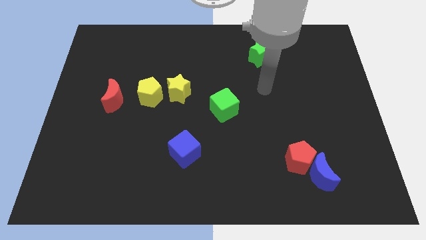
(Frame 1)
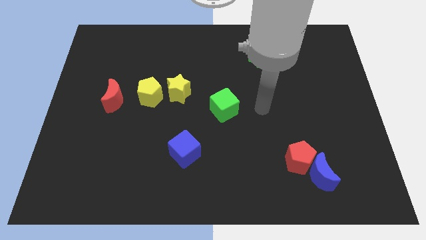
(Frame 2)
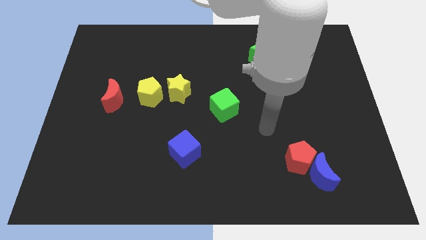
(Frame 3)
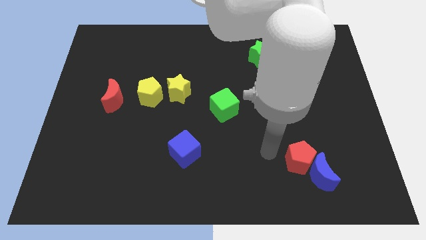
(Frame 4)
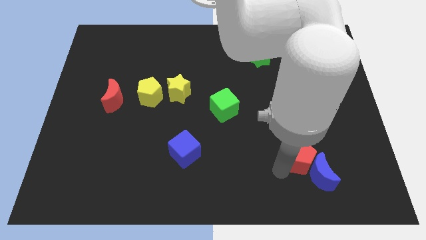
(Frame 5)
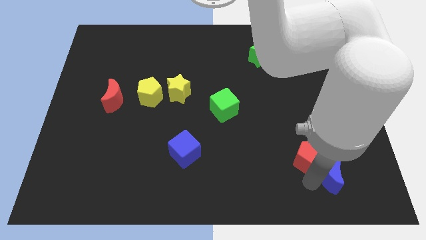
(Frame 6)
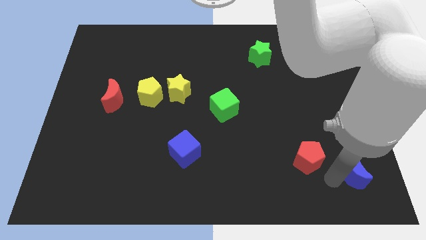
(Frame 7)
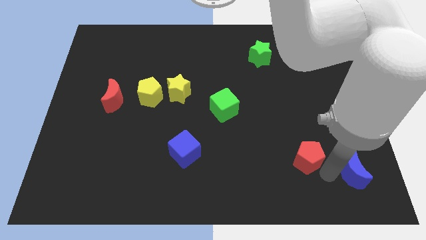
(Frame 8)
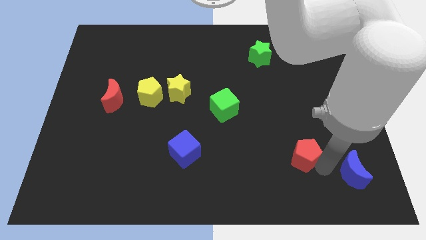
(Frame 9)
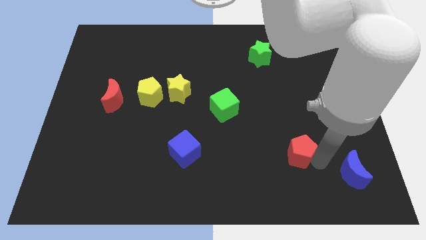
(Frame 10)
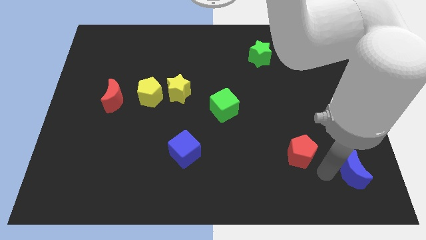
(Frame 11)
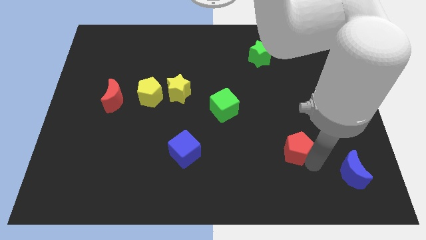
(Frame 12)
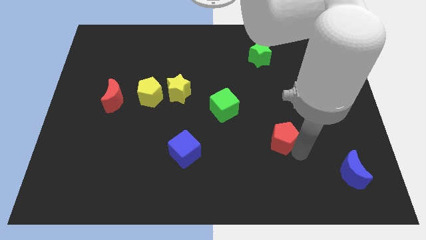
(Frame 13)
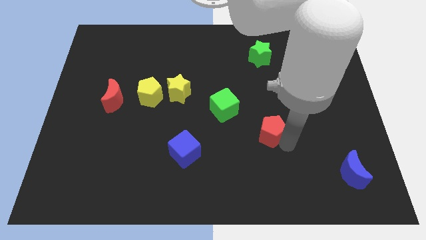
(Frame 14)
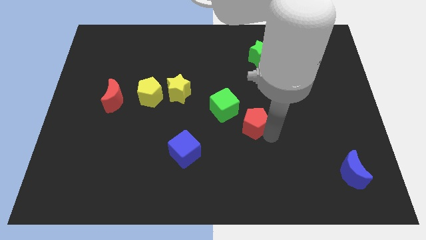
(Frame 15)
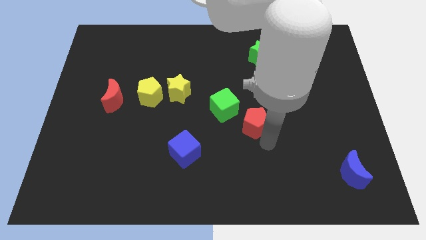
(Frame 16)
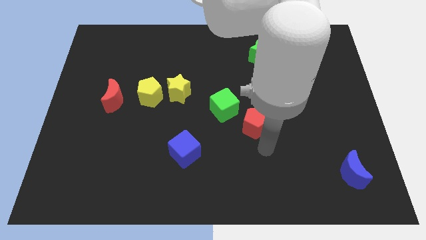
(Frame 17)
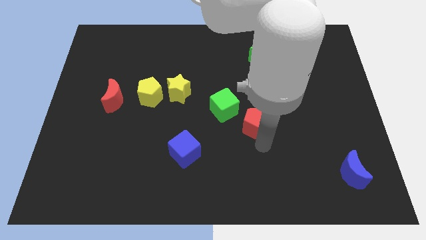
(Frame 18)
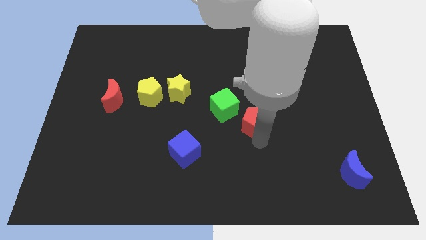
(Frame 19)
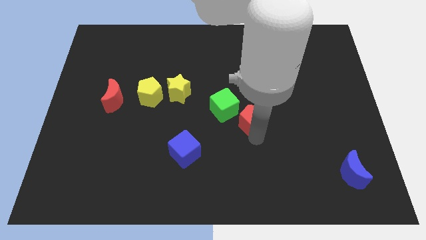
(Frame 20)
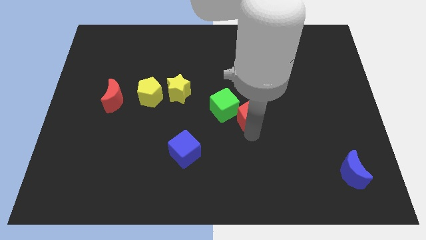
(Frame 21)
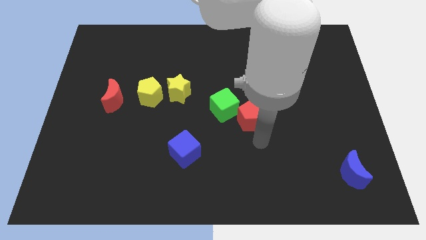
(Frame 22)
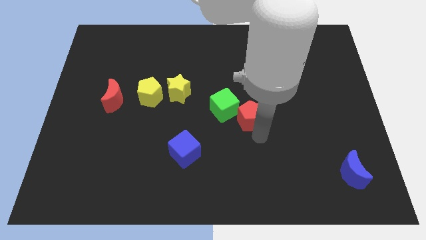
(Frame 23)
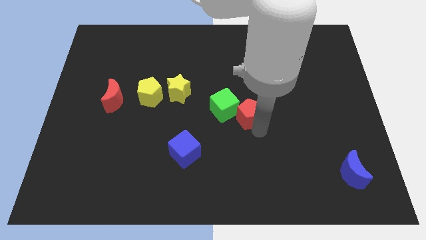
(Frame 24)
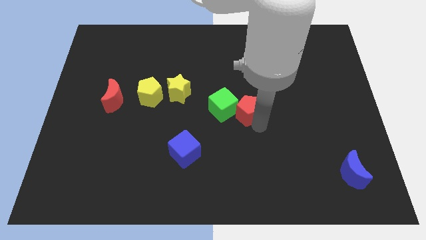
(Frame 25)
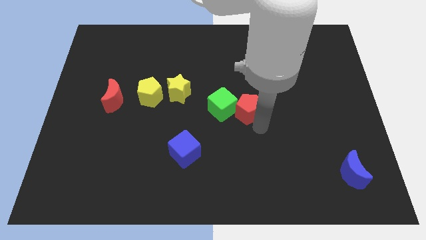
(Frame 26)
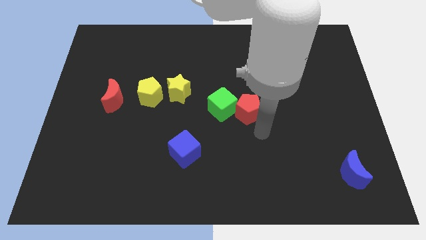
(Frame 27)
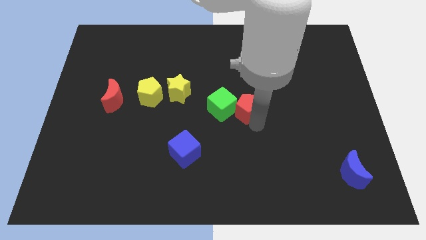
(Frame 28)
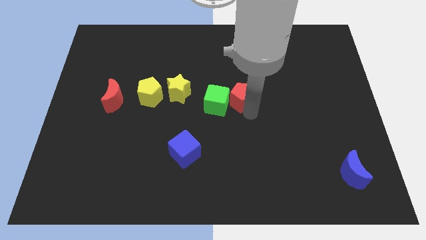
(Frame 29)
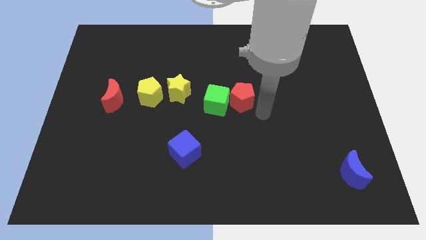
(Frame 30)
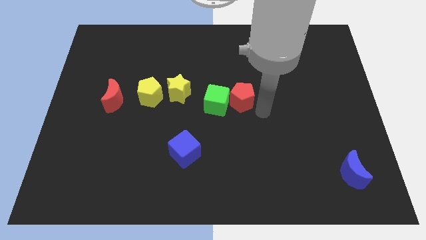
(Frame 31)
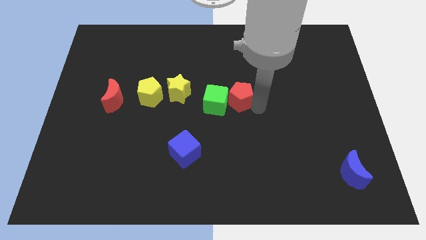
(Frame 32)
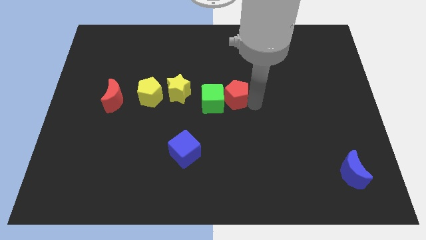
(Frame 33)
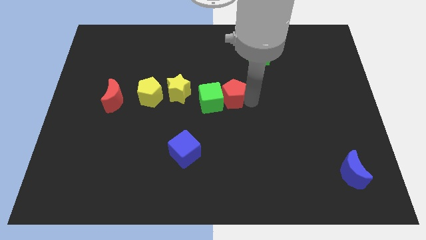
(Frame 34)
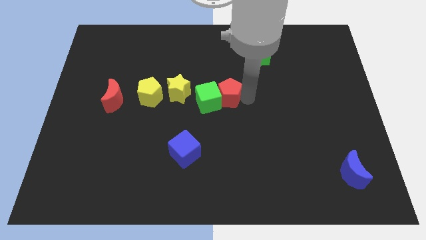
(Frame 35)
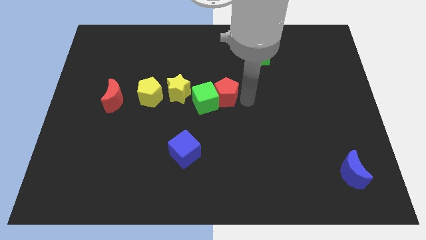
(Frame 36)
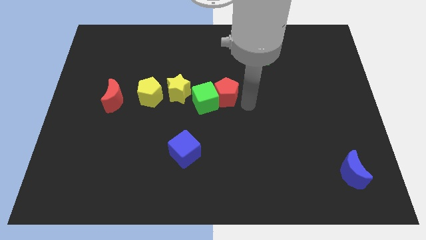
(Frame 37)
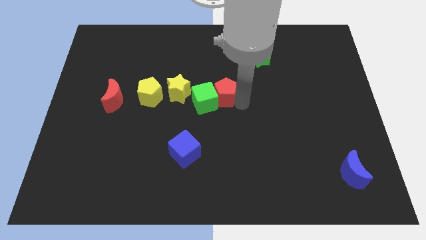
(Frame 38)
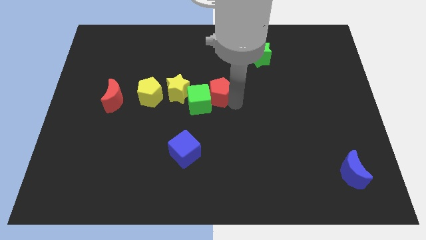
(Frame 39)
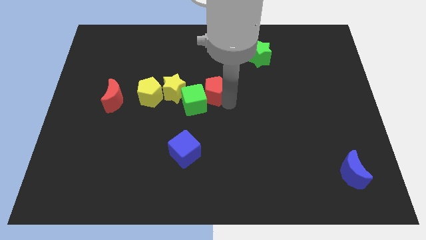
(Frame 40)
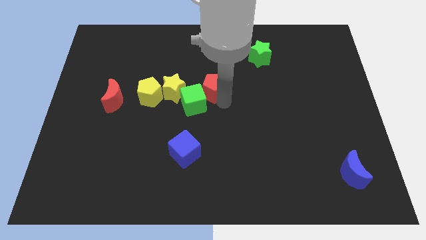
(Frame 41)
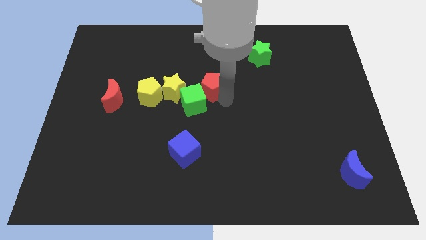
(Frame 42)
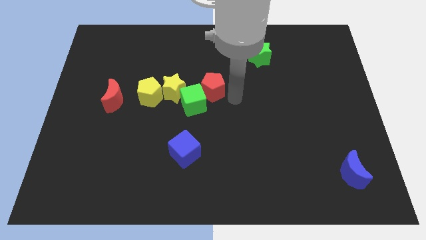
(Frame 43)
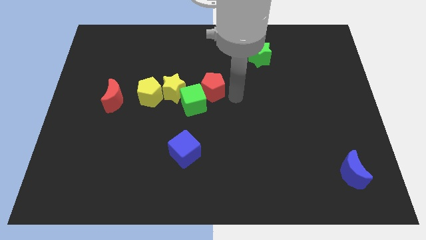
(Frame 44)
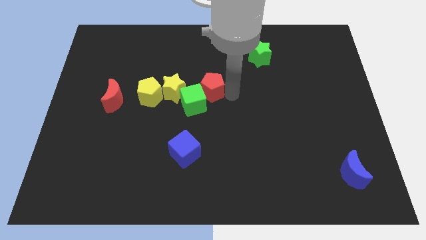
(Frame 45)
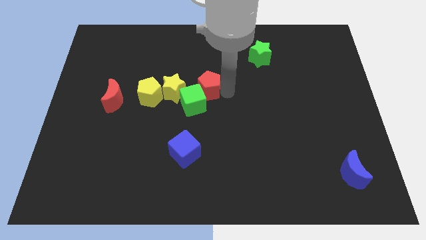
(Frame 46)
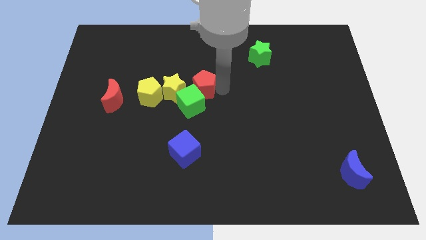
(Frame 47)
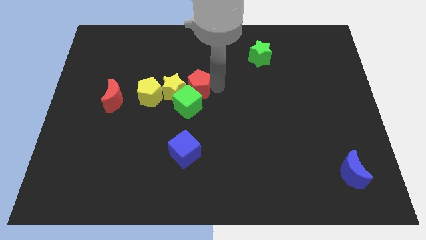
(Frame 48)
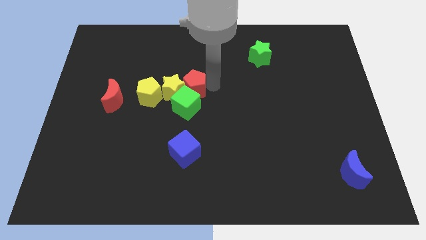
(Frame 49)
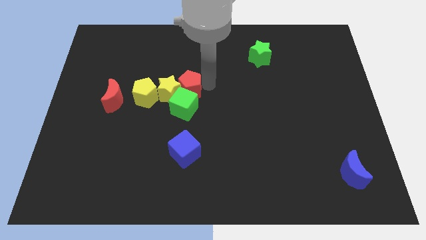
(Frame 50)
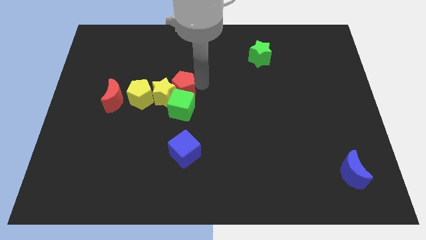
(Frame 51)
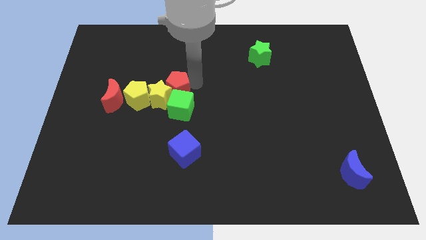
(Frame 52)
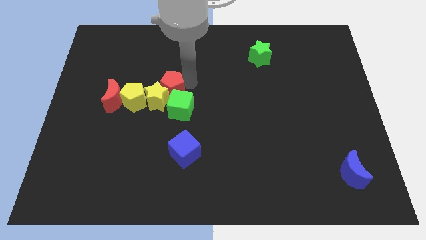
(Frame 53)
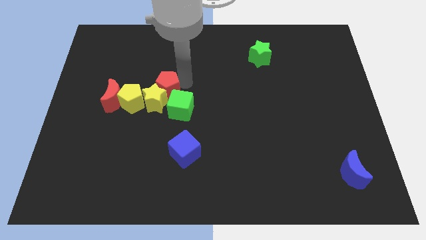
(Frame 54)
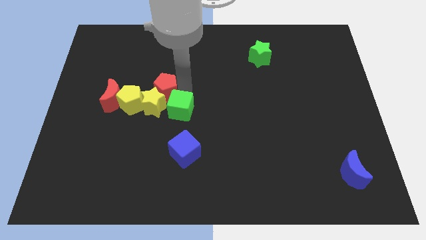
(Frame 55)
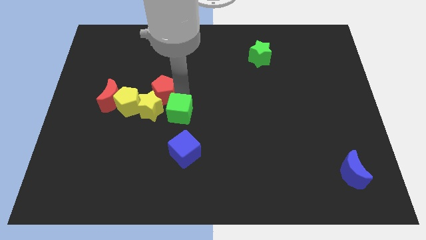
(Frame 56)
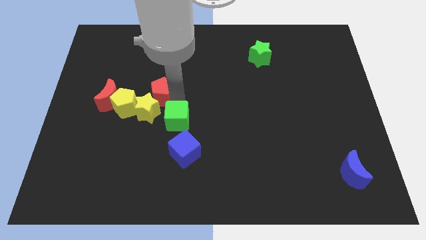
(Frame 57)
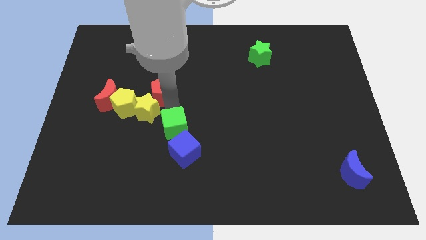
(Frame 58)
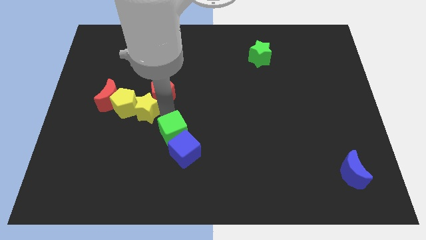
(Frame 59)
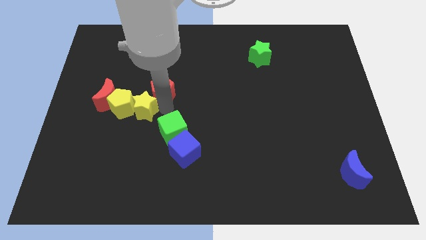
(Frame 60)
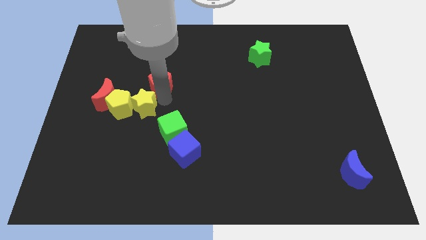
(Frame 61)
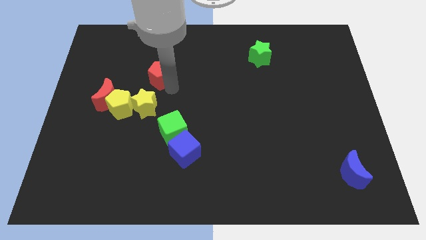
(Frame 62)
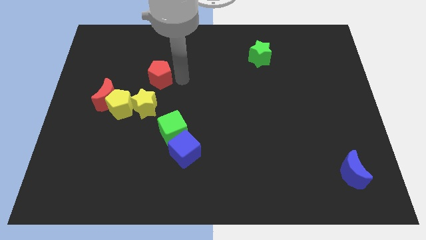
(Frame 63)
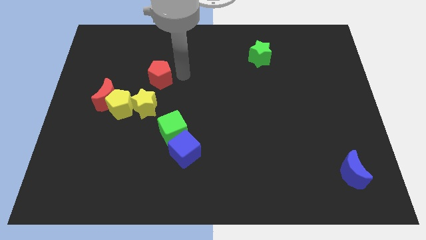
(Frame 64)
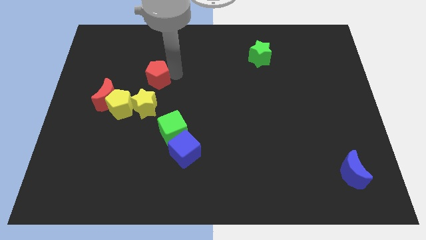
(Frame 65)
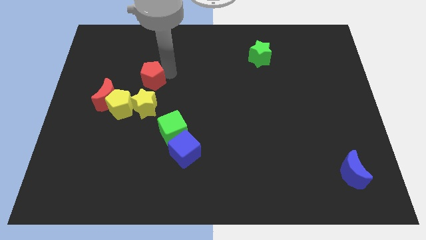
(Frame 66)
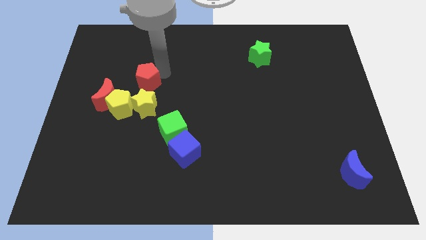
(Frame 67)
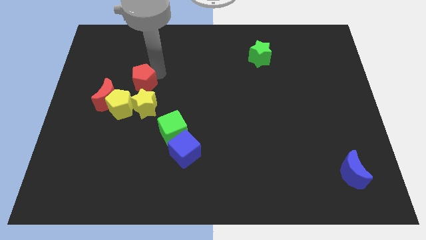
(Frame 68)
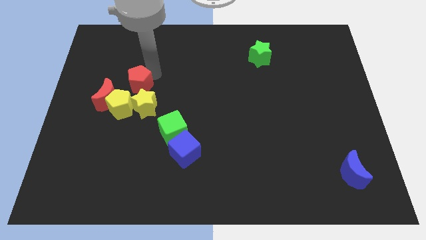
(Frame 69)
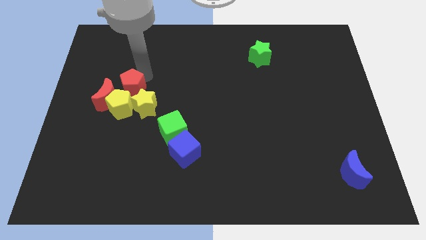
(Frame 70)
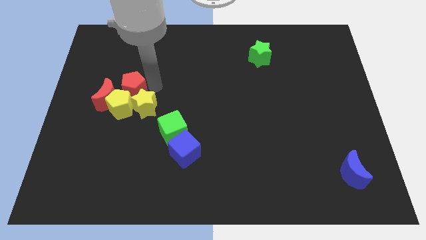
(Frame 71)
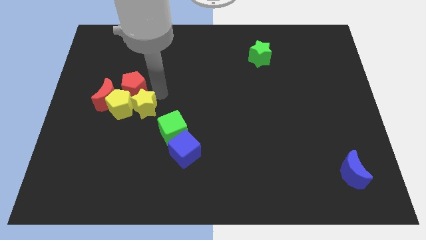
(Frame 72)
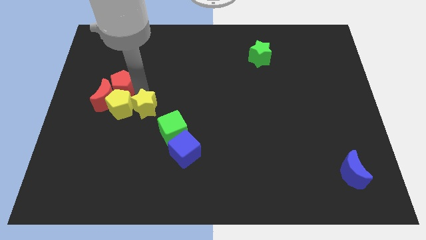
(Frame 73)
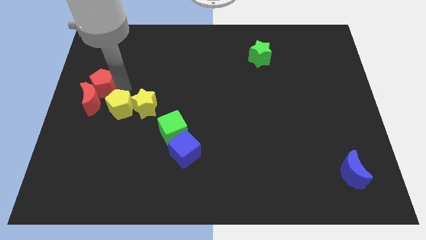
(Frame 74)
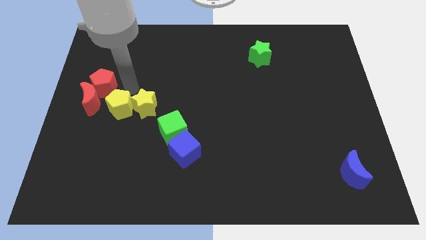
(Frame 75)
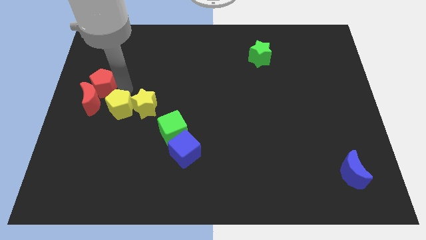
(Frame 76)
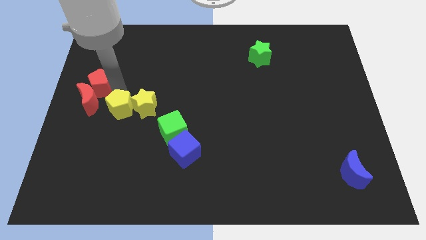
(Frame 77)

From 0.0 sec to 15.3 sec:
push the red pentagon to the top left side of the red moon
